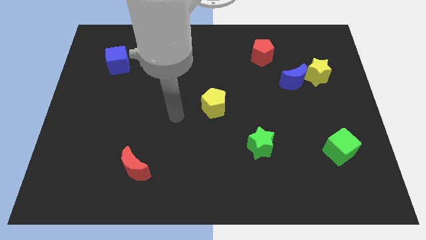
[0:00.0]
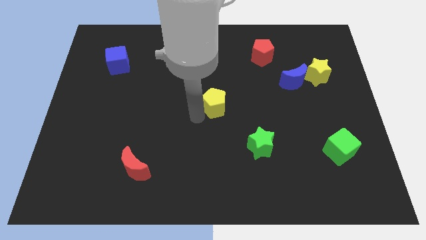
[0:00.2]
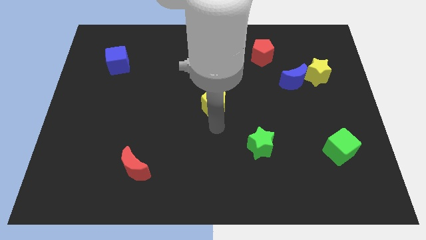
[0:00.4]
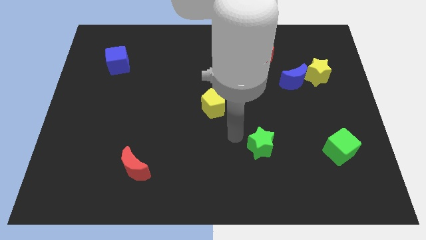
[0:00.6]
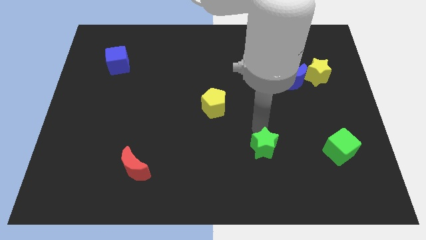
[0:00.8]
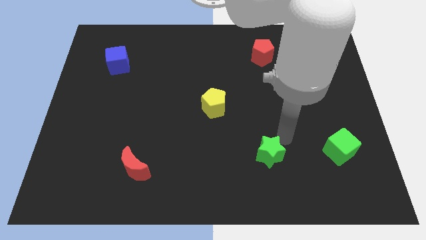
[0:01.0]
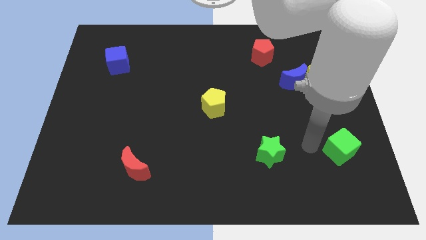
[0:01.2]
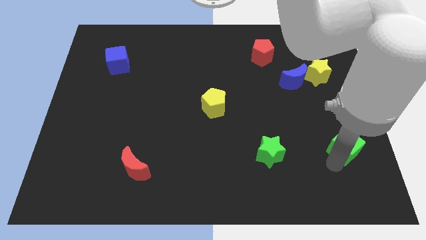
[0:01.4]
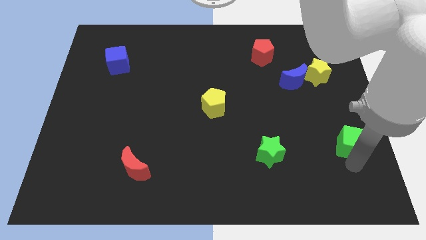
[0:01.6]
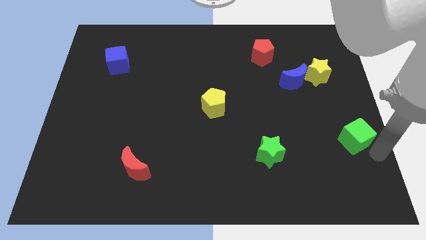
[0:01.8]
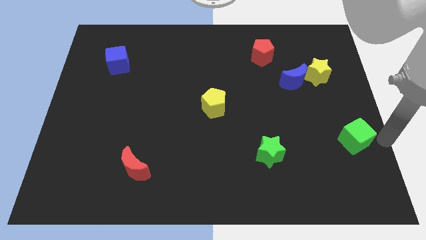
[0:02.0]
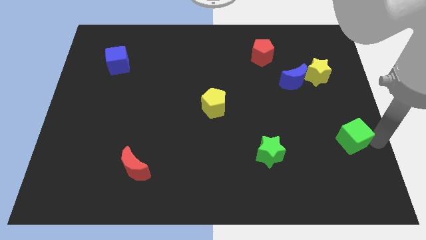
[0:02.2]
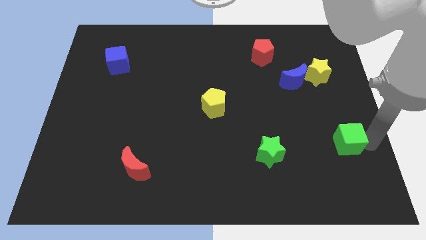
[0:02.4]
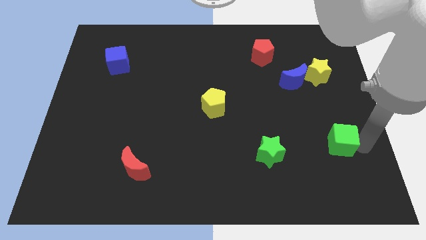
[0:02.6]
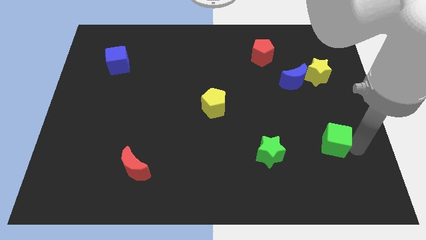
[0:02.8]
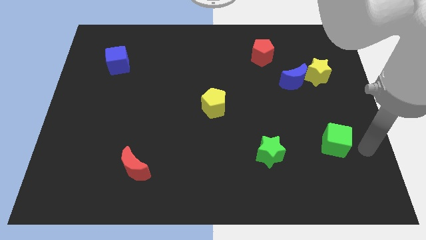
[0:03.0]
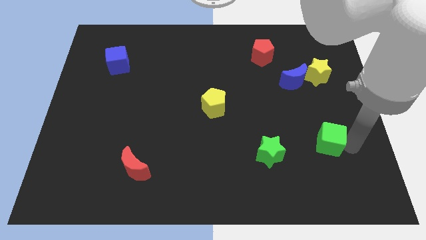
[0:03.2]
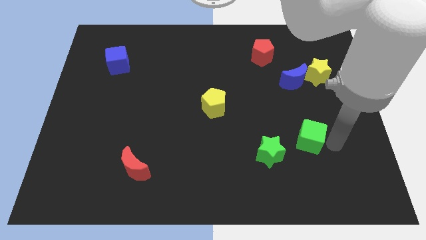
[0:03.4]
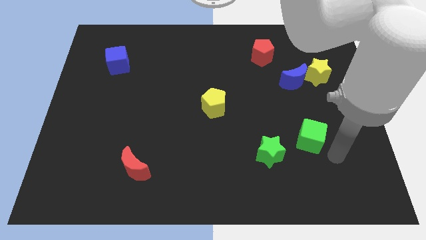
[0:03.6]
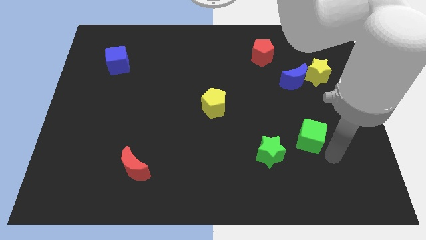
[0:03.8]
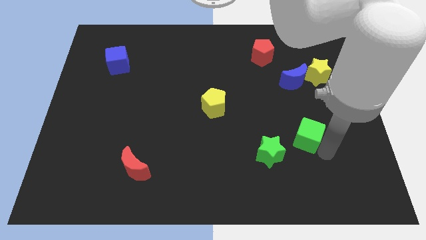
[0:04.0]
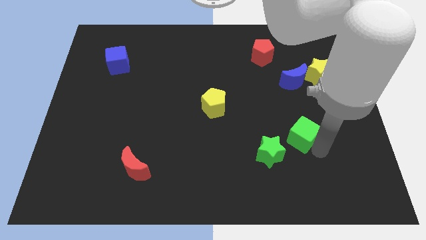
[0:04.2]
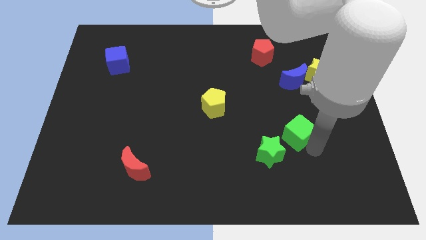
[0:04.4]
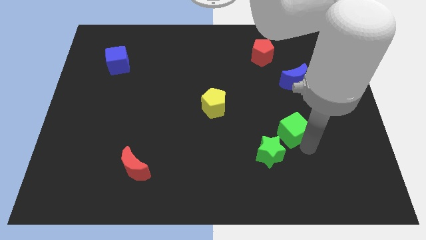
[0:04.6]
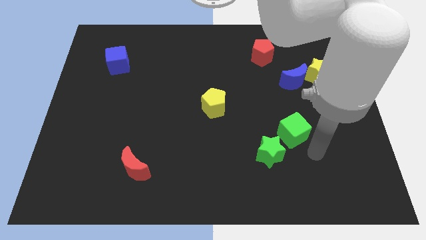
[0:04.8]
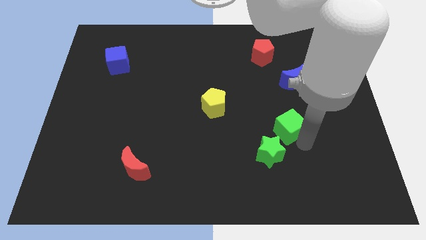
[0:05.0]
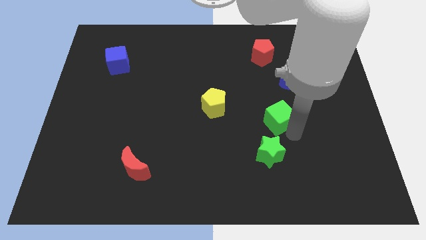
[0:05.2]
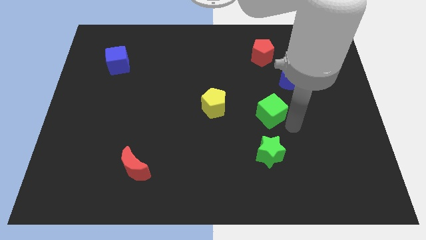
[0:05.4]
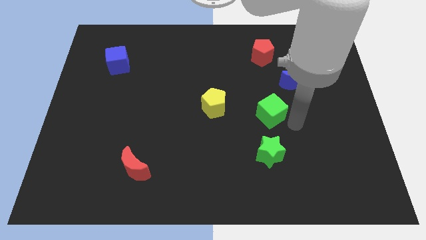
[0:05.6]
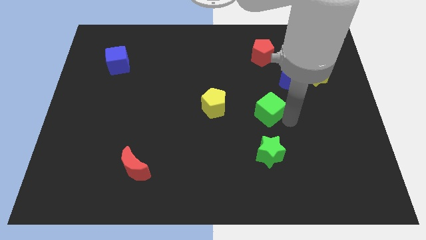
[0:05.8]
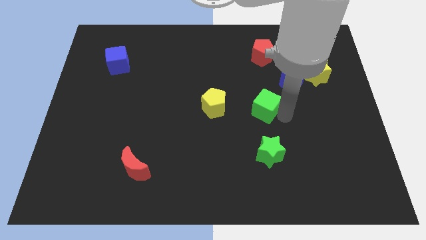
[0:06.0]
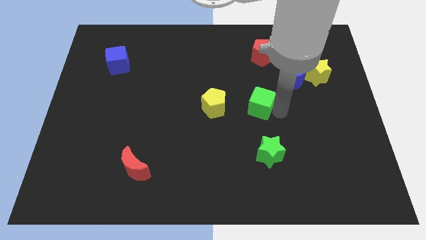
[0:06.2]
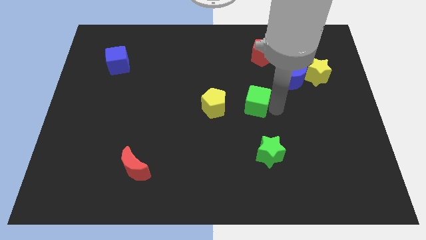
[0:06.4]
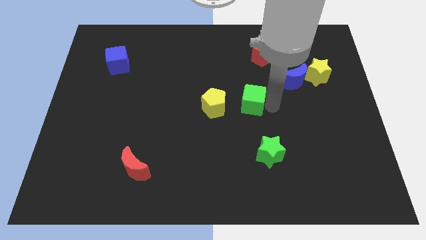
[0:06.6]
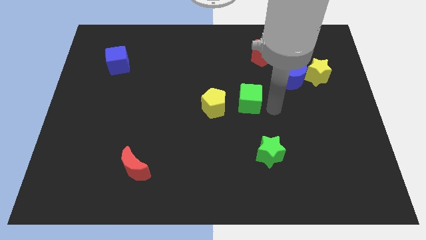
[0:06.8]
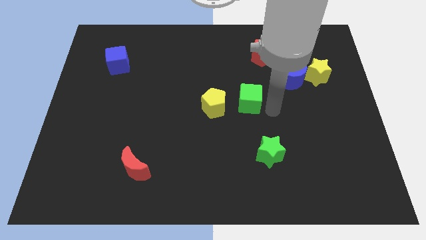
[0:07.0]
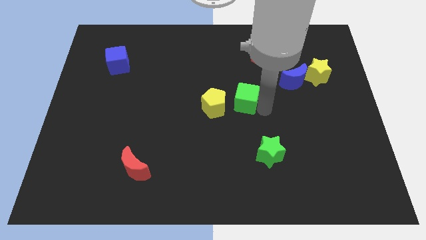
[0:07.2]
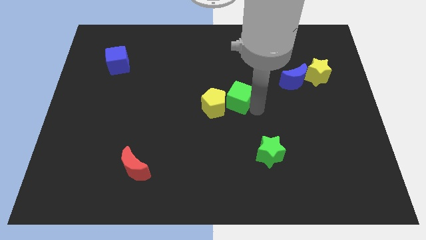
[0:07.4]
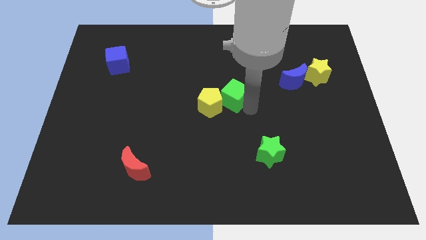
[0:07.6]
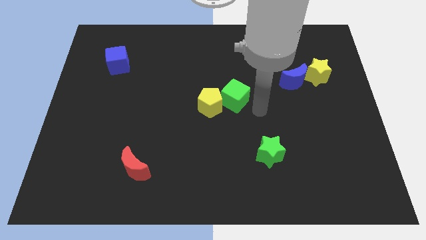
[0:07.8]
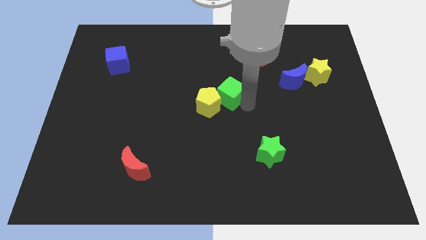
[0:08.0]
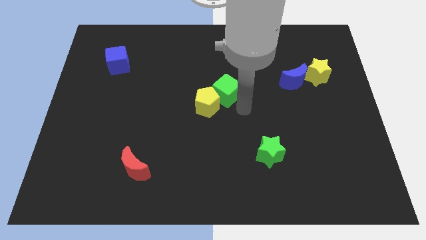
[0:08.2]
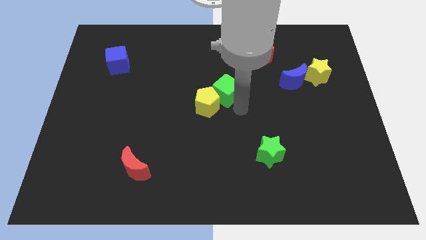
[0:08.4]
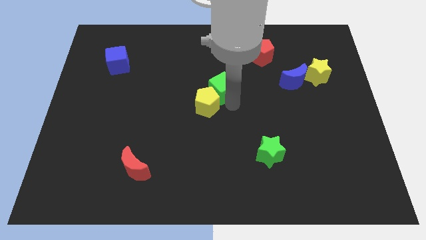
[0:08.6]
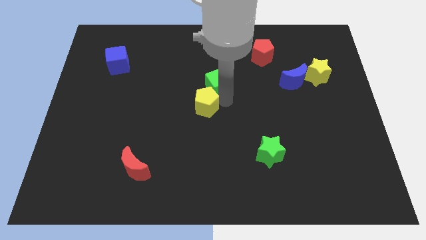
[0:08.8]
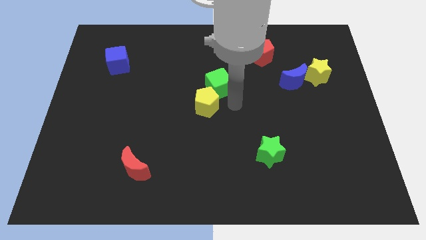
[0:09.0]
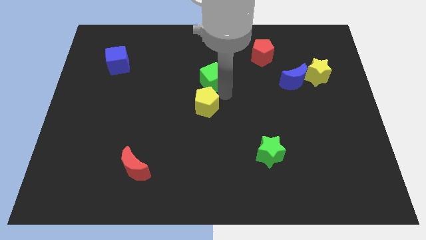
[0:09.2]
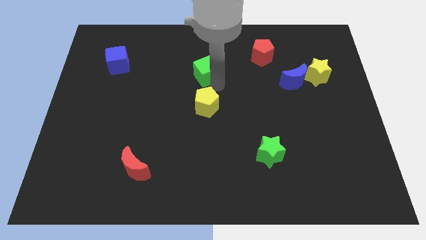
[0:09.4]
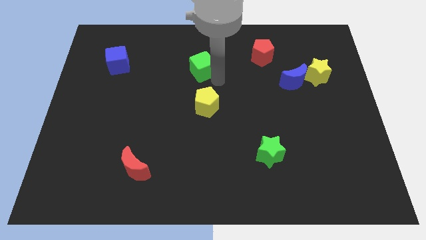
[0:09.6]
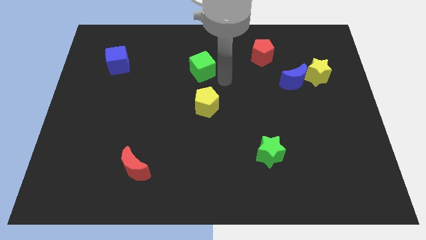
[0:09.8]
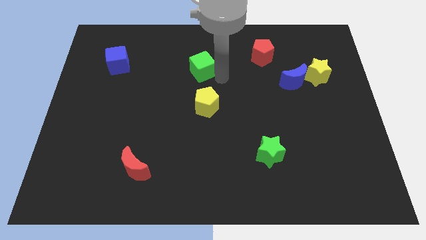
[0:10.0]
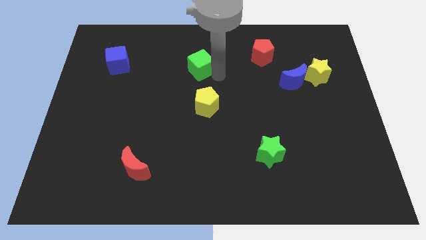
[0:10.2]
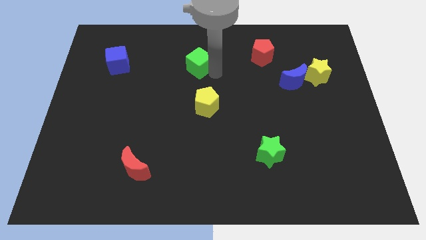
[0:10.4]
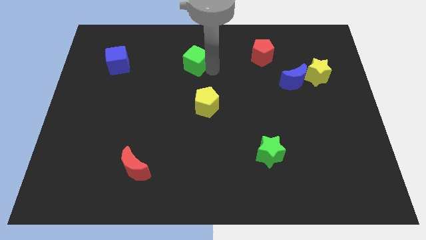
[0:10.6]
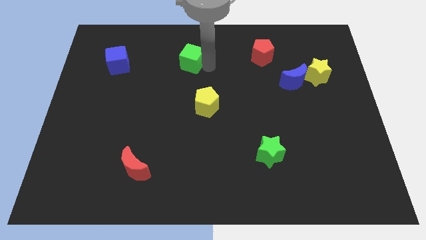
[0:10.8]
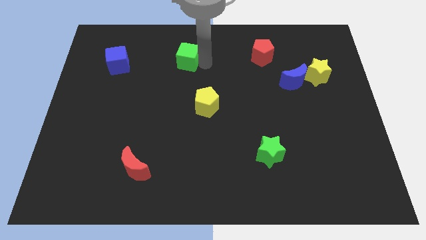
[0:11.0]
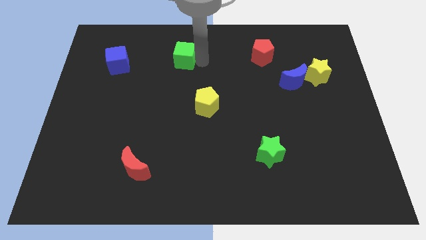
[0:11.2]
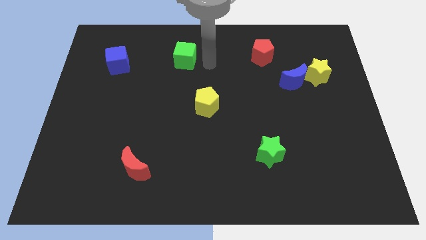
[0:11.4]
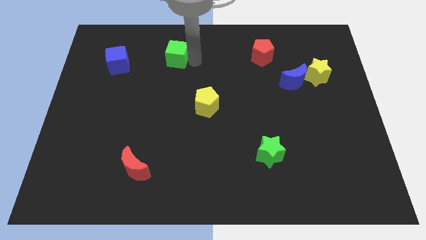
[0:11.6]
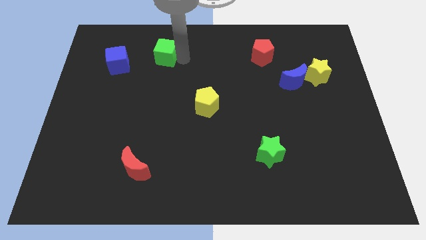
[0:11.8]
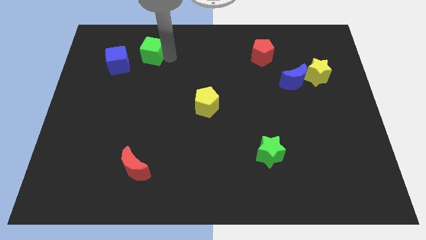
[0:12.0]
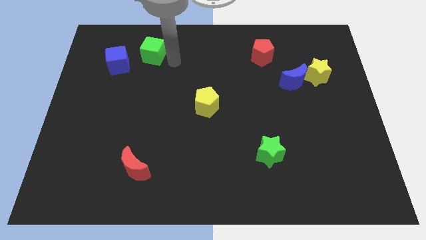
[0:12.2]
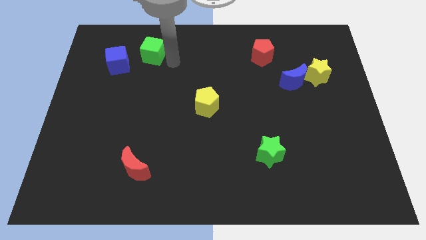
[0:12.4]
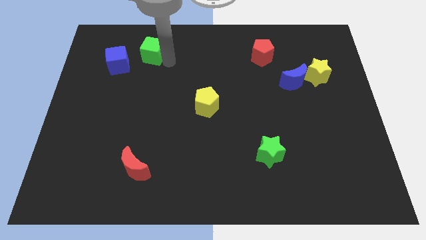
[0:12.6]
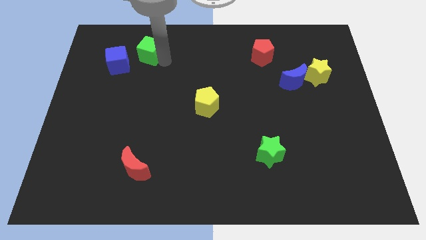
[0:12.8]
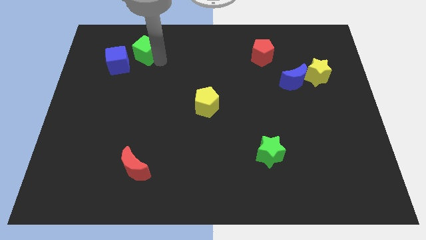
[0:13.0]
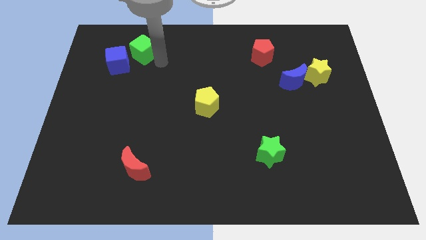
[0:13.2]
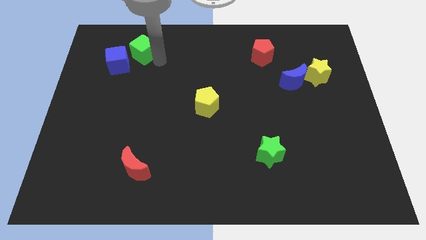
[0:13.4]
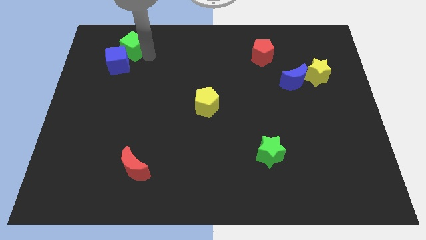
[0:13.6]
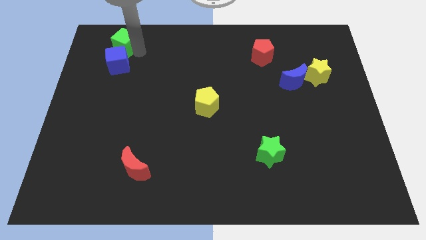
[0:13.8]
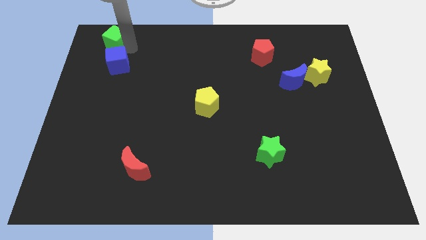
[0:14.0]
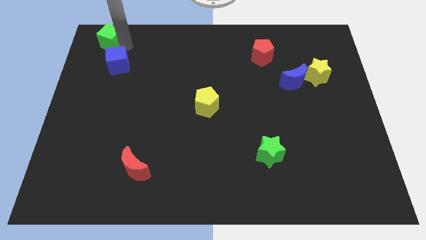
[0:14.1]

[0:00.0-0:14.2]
push the green cube to the top left of the board
